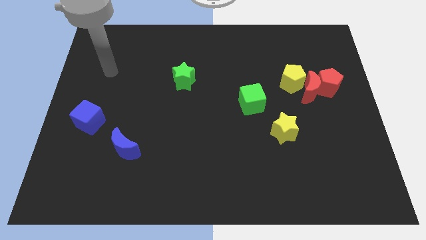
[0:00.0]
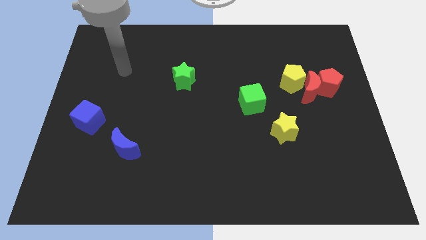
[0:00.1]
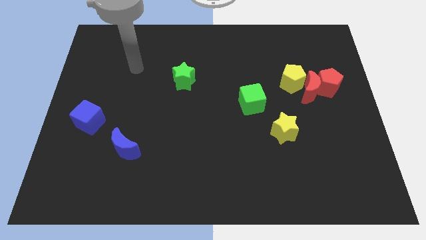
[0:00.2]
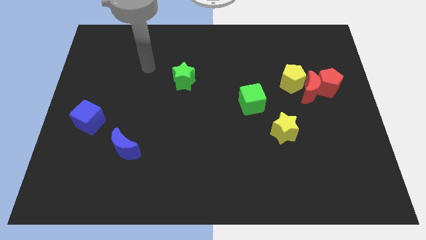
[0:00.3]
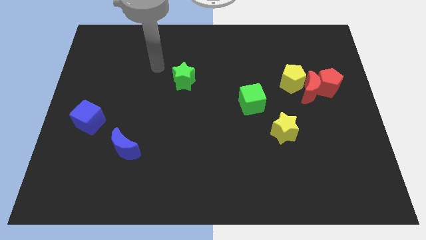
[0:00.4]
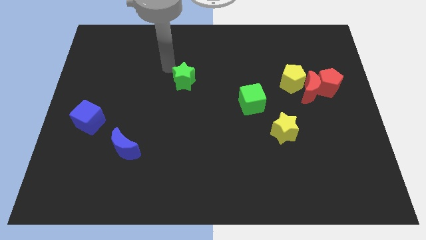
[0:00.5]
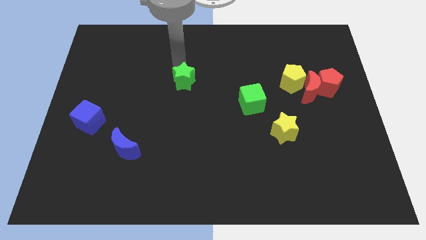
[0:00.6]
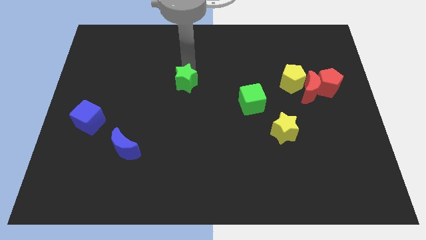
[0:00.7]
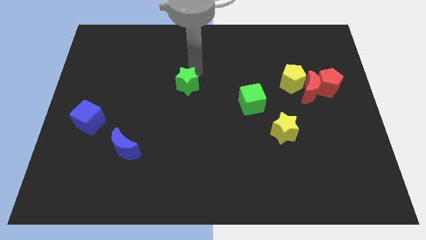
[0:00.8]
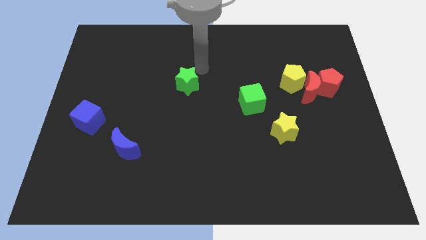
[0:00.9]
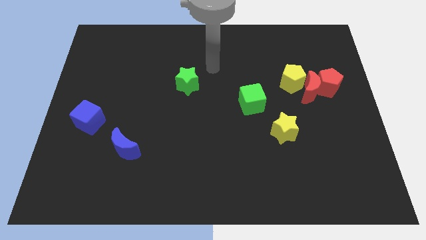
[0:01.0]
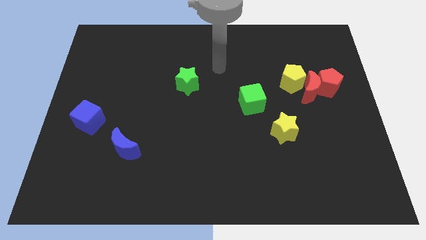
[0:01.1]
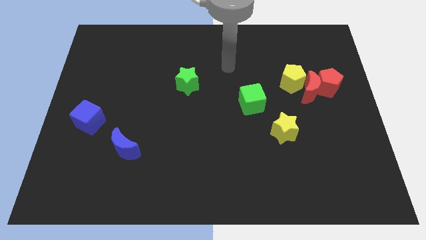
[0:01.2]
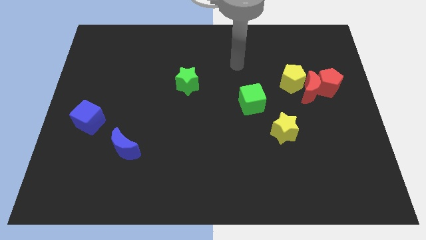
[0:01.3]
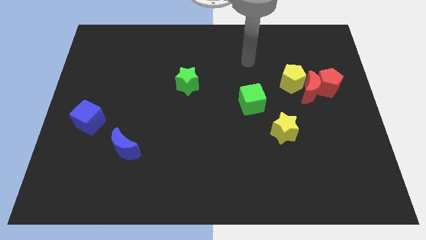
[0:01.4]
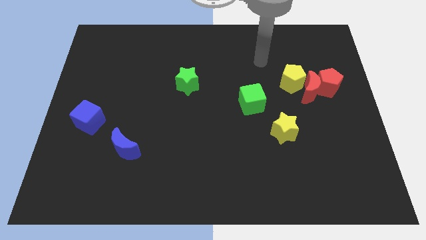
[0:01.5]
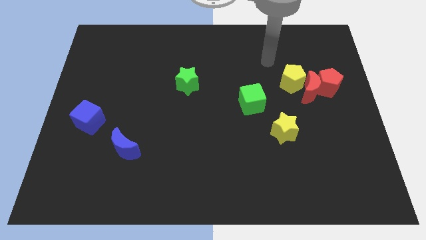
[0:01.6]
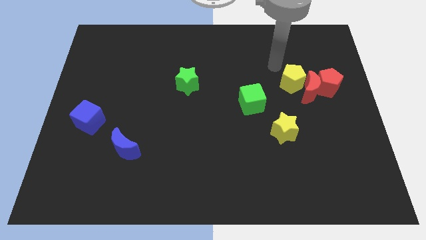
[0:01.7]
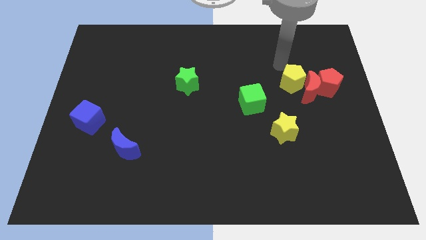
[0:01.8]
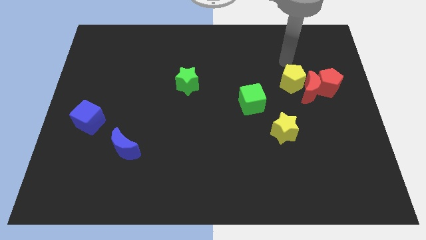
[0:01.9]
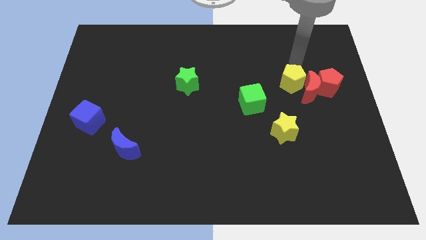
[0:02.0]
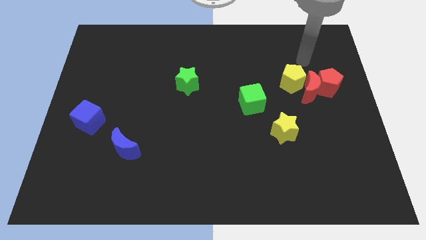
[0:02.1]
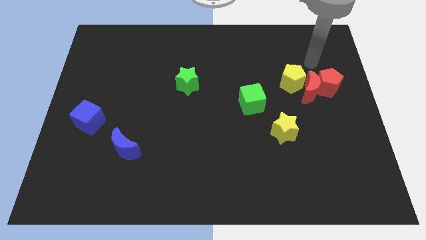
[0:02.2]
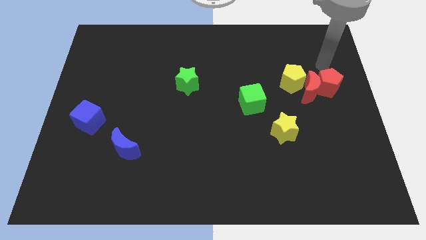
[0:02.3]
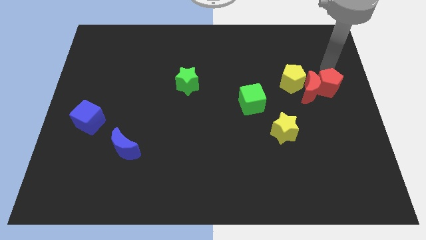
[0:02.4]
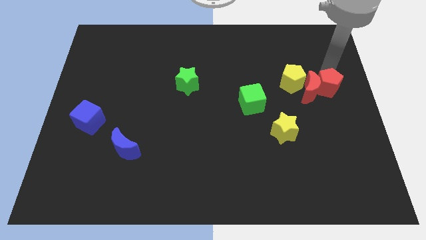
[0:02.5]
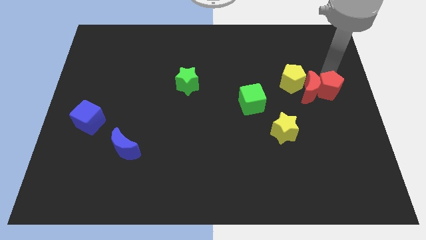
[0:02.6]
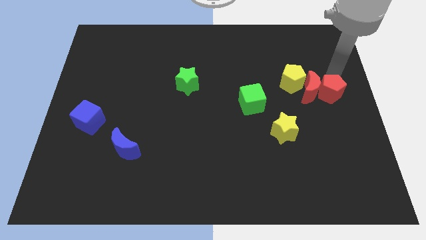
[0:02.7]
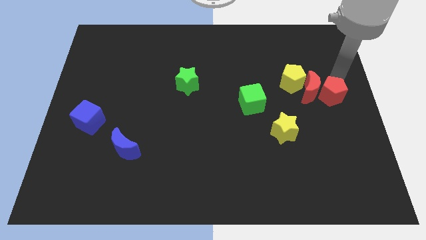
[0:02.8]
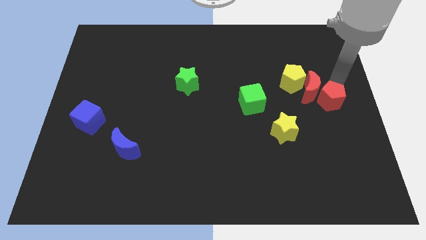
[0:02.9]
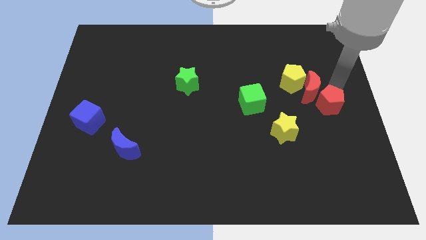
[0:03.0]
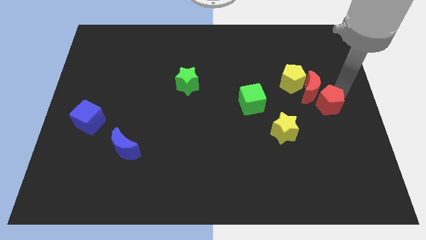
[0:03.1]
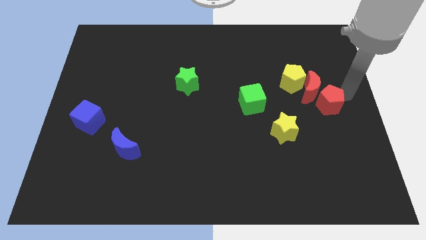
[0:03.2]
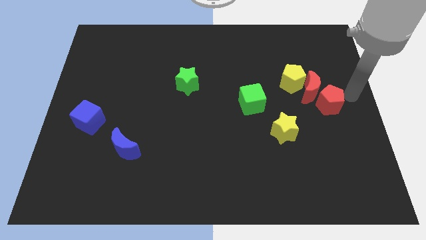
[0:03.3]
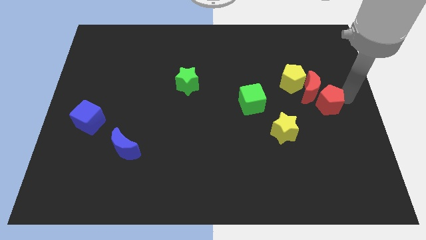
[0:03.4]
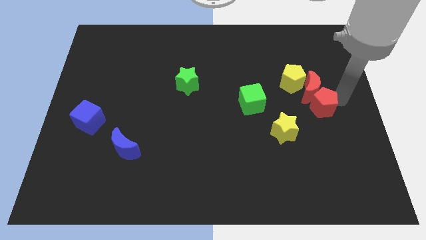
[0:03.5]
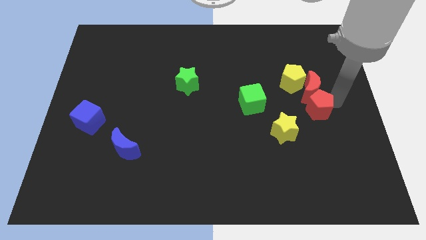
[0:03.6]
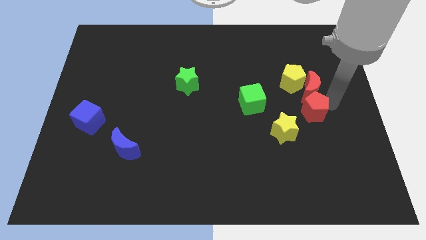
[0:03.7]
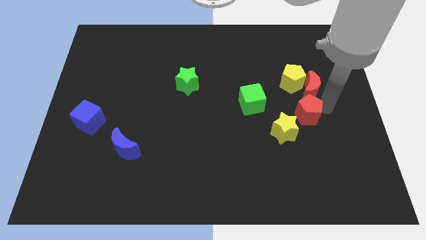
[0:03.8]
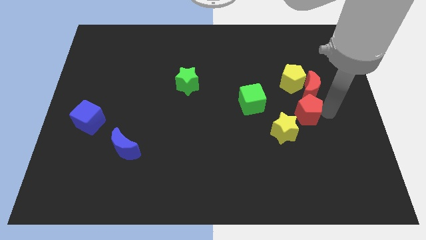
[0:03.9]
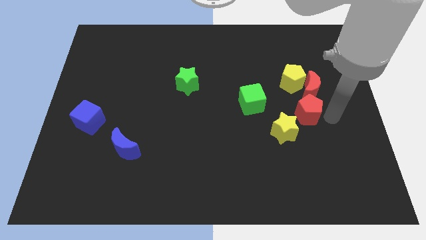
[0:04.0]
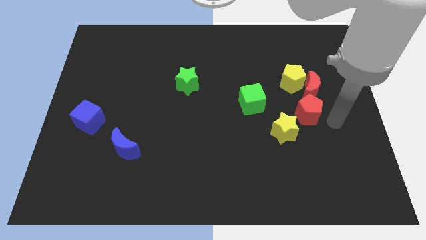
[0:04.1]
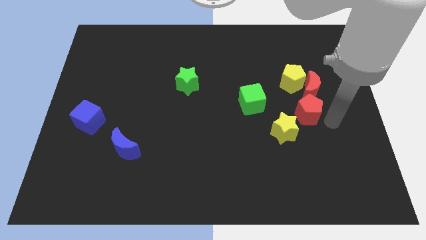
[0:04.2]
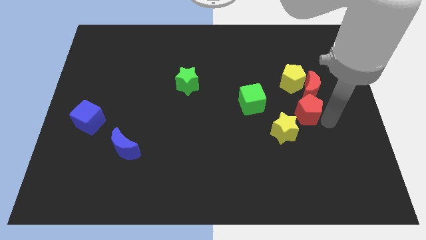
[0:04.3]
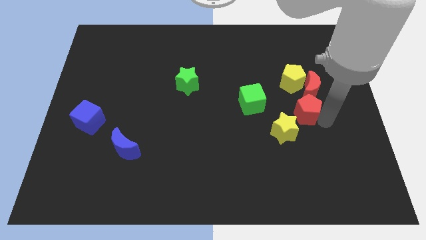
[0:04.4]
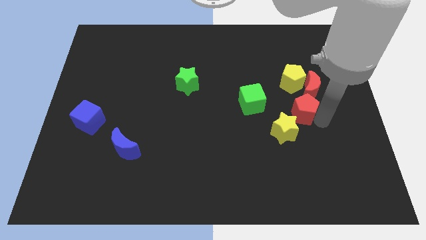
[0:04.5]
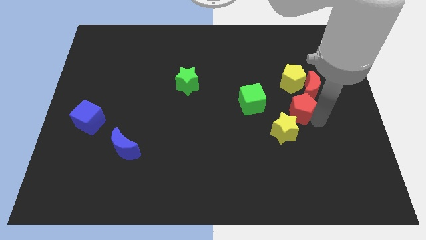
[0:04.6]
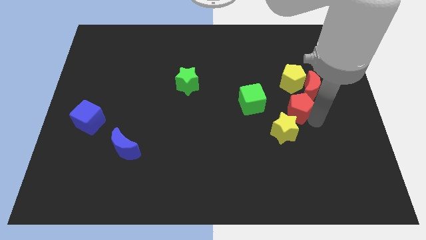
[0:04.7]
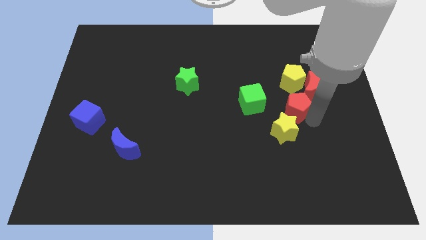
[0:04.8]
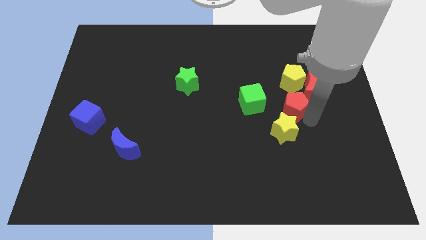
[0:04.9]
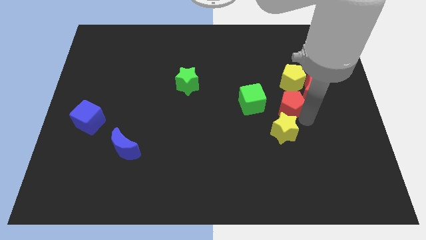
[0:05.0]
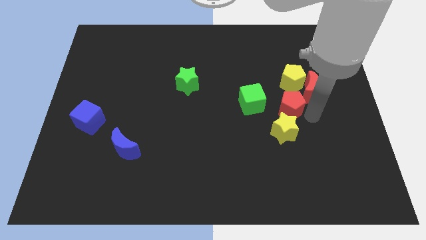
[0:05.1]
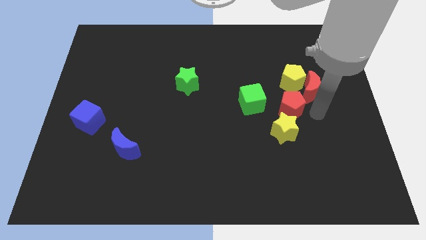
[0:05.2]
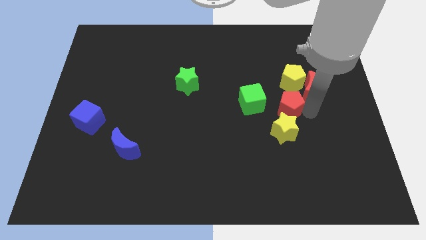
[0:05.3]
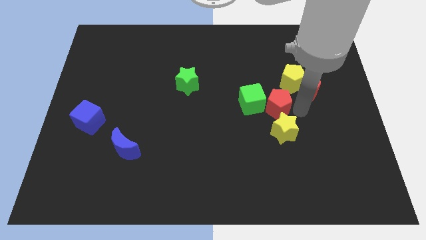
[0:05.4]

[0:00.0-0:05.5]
move the red pentagon close to the green cube

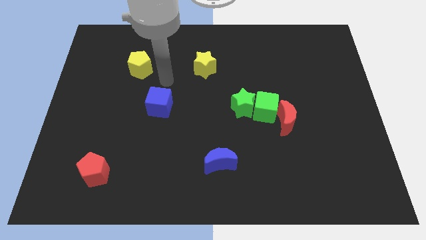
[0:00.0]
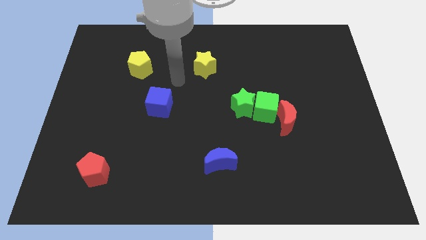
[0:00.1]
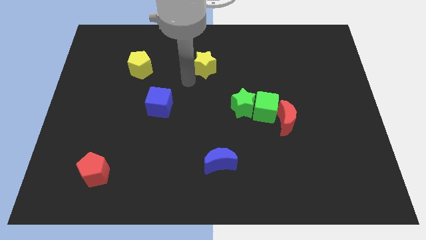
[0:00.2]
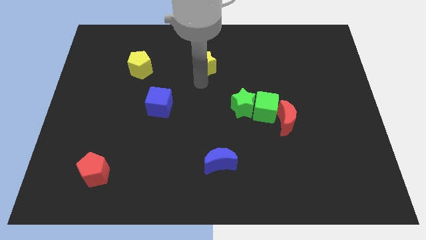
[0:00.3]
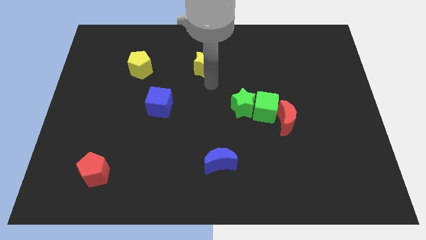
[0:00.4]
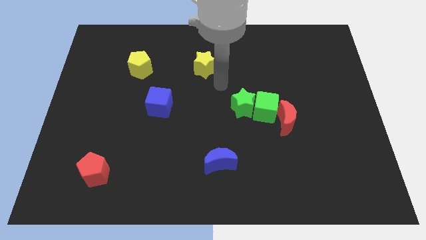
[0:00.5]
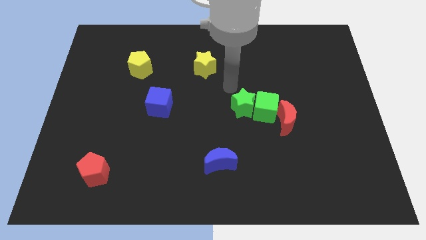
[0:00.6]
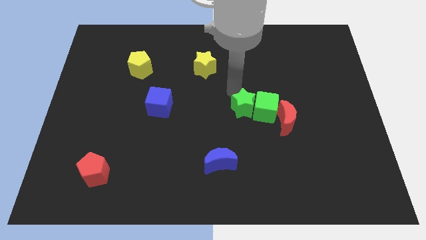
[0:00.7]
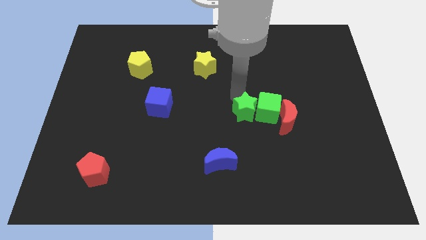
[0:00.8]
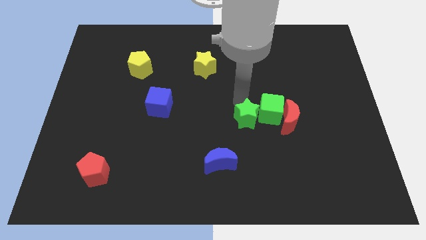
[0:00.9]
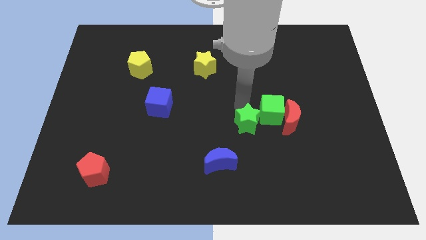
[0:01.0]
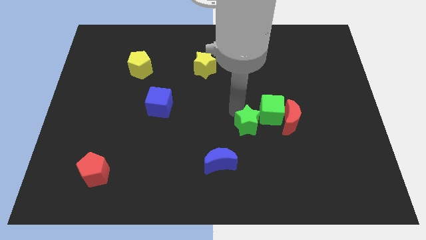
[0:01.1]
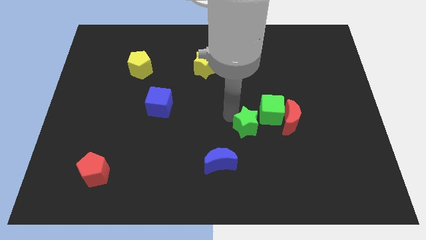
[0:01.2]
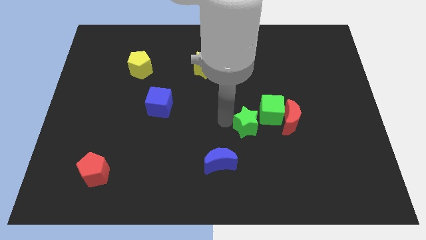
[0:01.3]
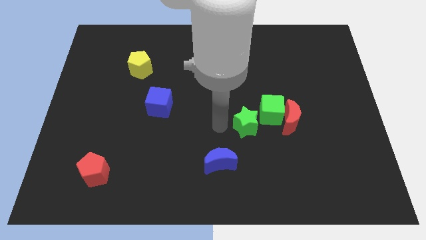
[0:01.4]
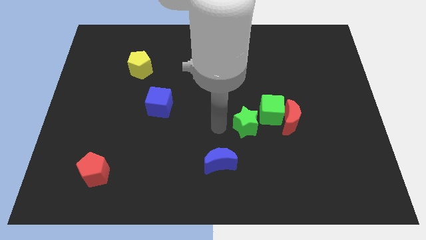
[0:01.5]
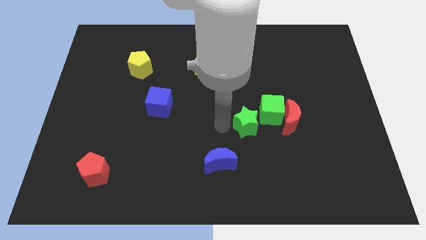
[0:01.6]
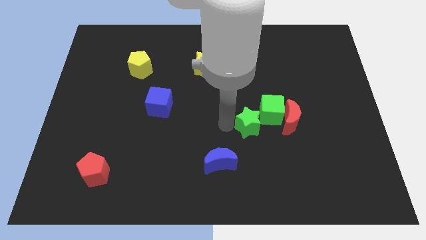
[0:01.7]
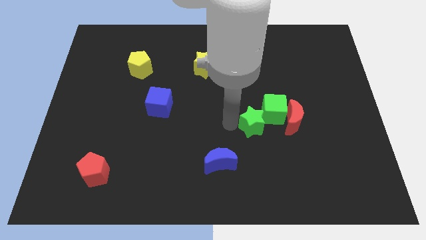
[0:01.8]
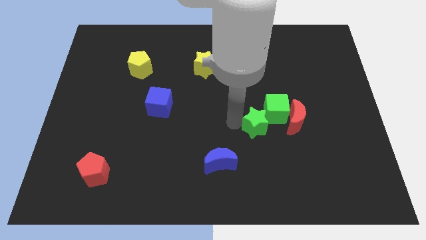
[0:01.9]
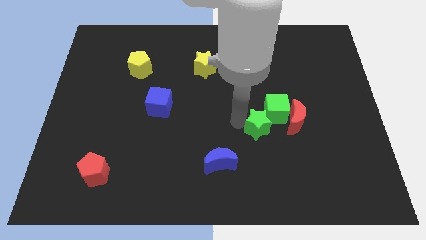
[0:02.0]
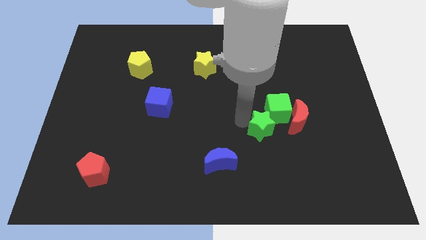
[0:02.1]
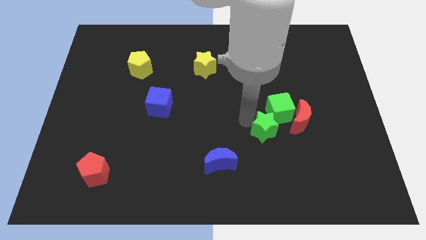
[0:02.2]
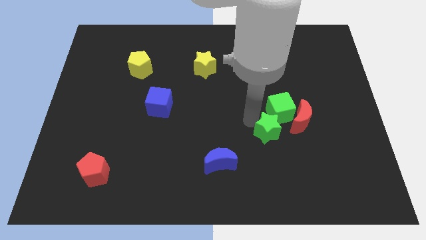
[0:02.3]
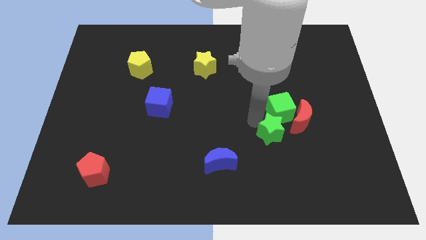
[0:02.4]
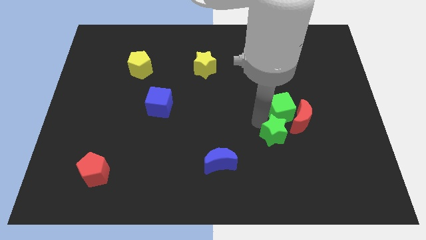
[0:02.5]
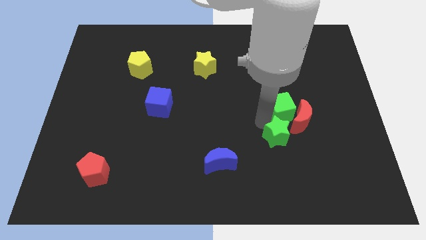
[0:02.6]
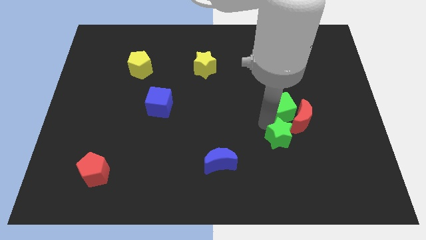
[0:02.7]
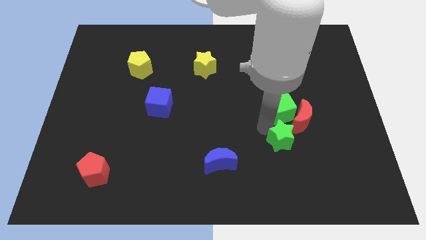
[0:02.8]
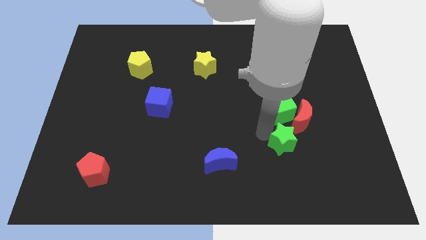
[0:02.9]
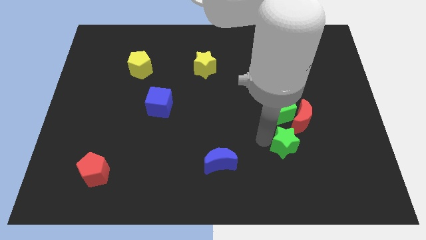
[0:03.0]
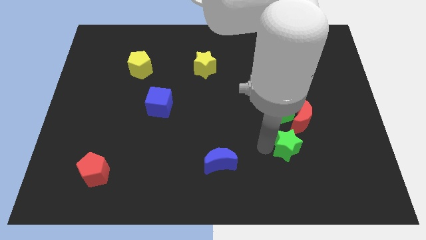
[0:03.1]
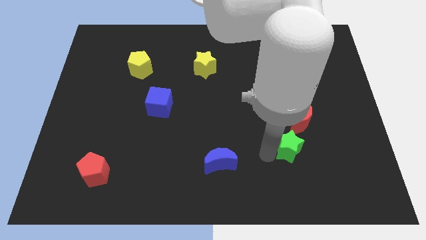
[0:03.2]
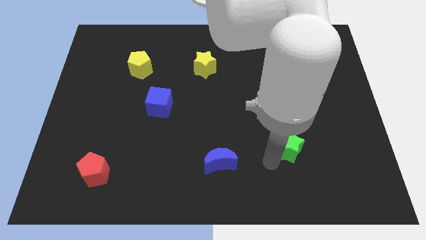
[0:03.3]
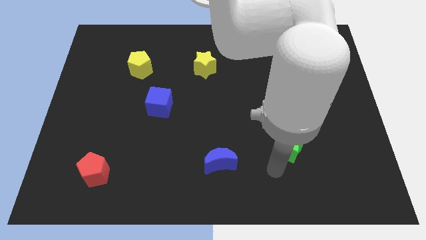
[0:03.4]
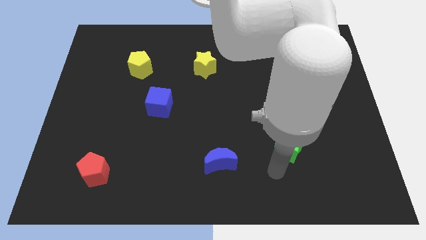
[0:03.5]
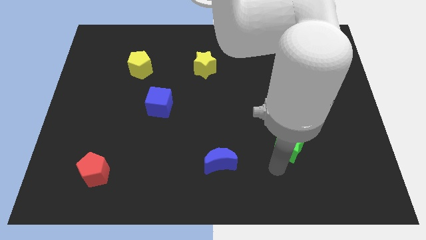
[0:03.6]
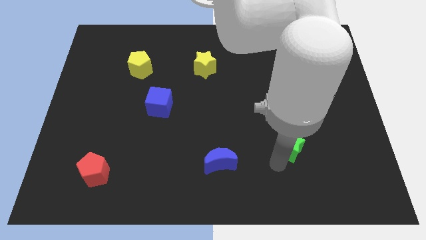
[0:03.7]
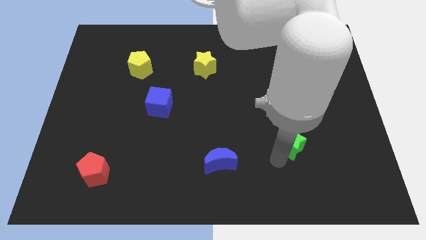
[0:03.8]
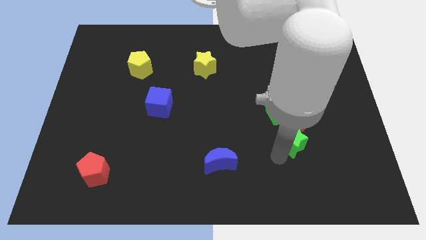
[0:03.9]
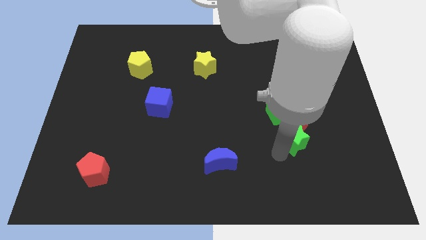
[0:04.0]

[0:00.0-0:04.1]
push the green star towards the red moon
